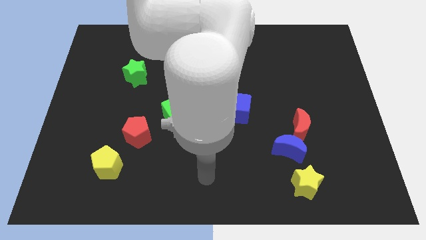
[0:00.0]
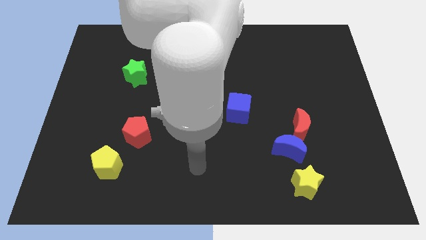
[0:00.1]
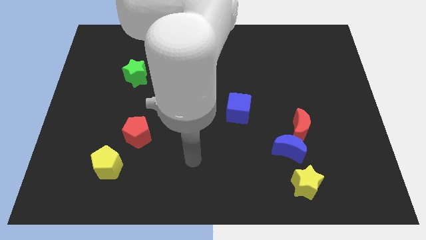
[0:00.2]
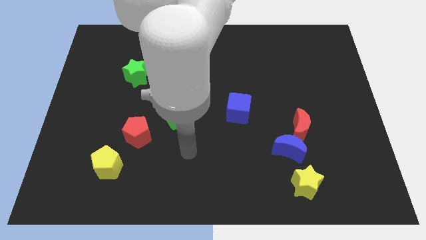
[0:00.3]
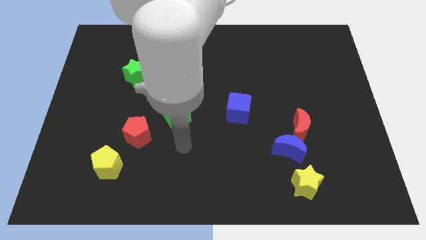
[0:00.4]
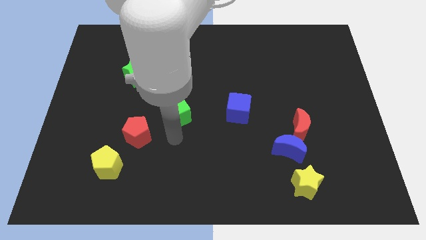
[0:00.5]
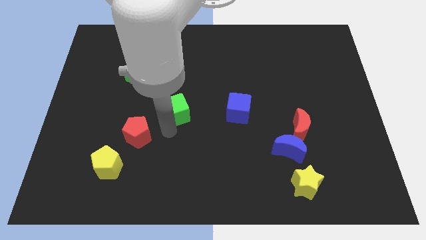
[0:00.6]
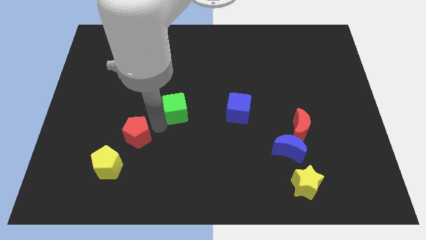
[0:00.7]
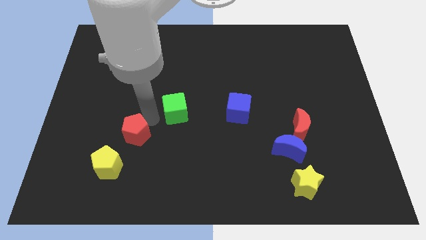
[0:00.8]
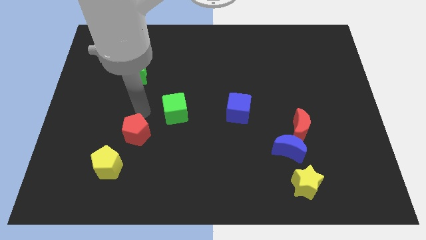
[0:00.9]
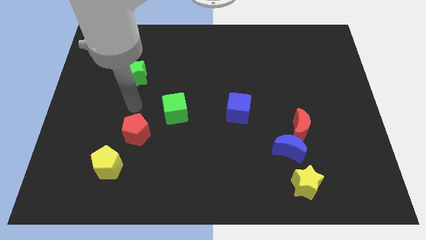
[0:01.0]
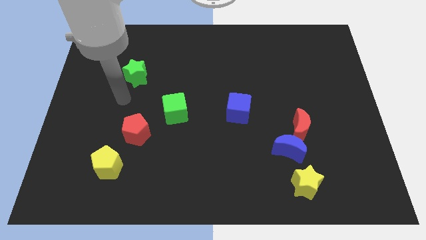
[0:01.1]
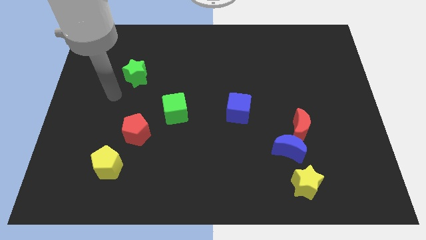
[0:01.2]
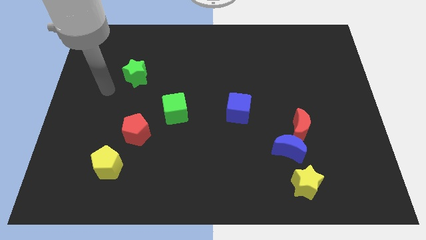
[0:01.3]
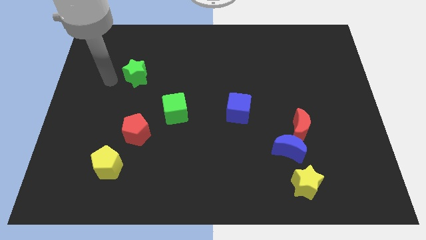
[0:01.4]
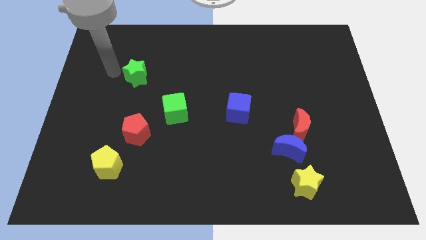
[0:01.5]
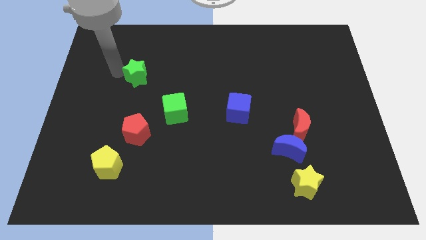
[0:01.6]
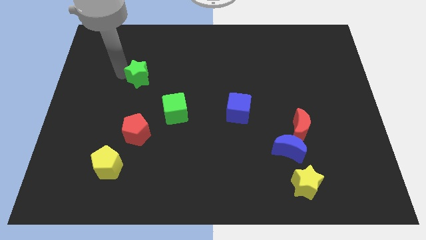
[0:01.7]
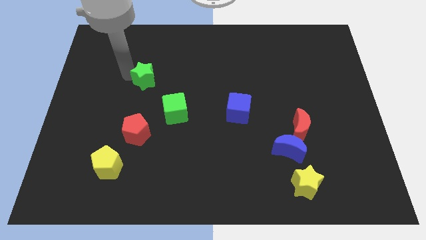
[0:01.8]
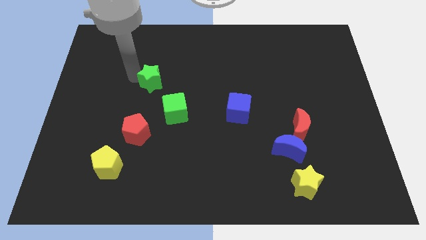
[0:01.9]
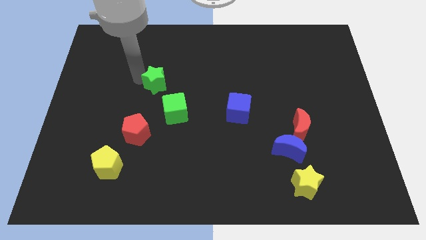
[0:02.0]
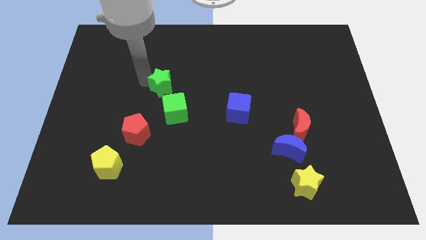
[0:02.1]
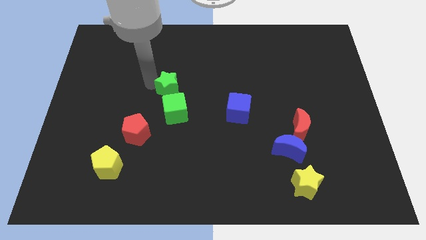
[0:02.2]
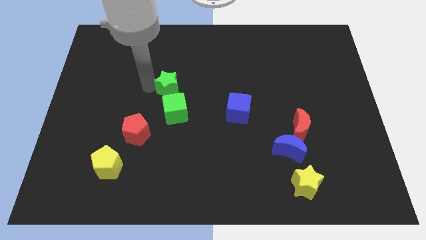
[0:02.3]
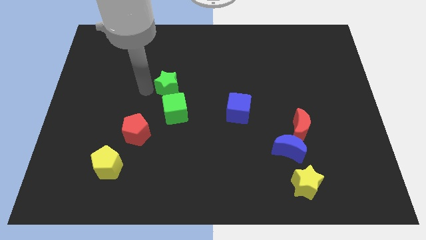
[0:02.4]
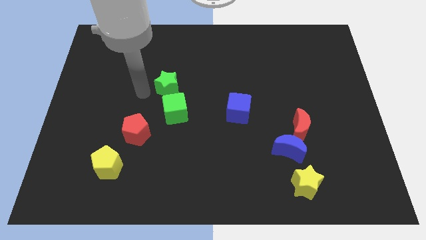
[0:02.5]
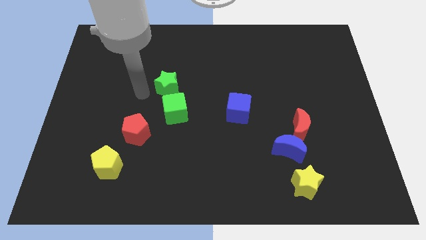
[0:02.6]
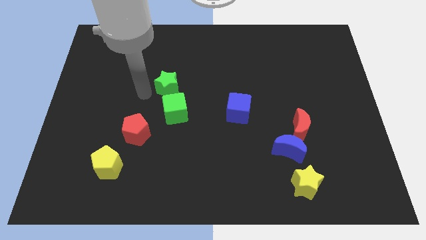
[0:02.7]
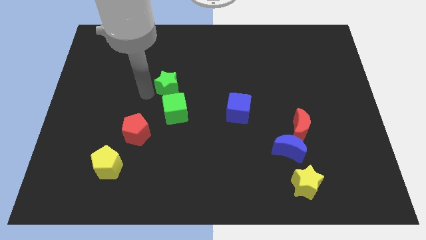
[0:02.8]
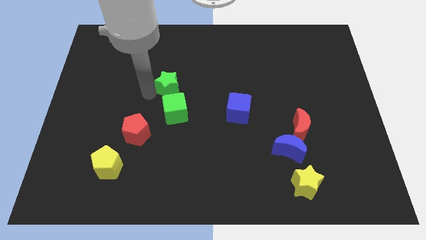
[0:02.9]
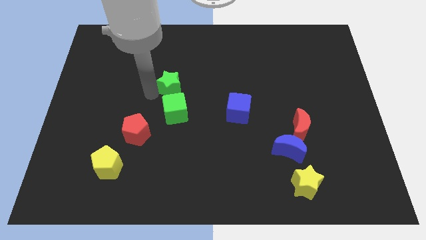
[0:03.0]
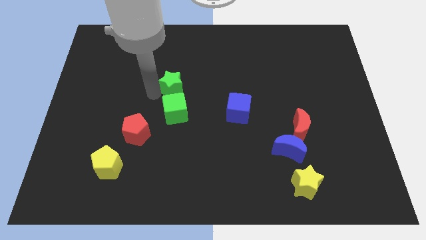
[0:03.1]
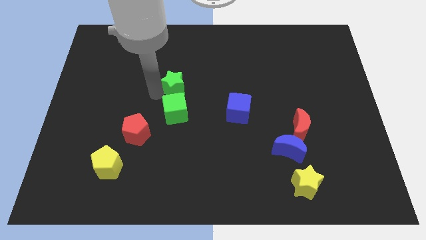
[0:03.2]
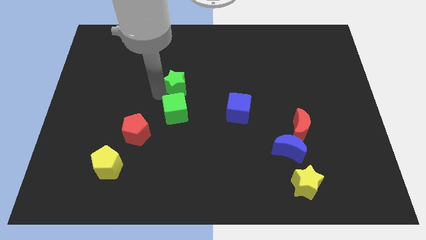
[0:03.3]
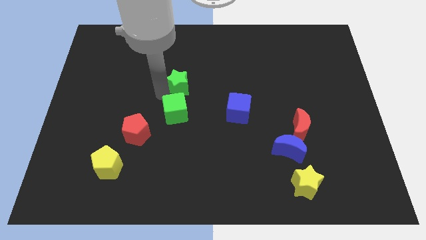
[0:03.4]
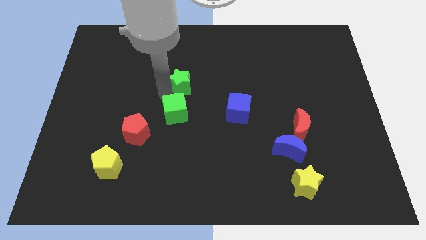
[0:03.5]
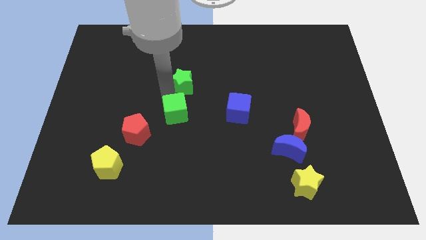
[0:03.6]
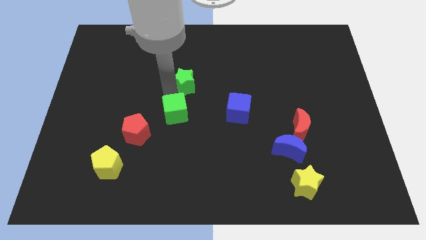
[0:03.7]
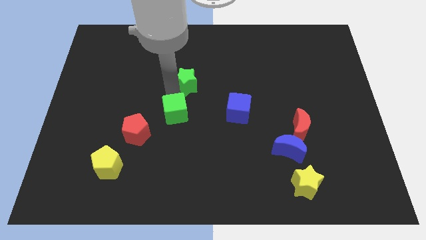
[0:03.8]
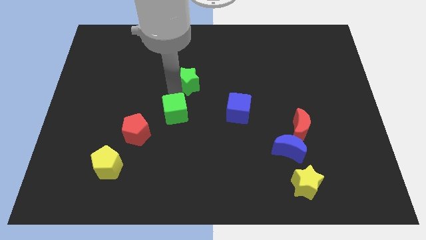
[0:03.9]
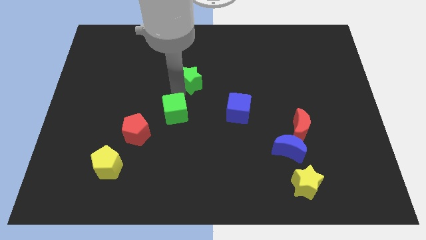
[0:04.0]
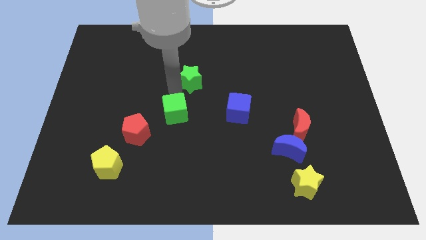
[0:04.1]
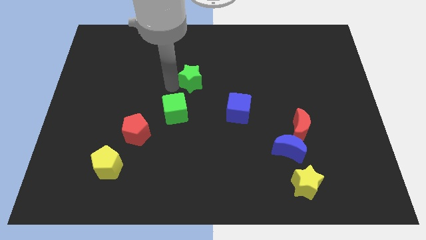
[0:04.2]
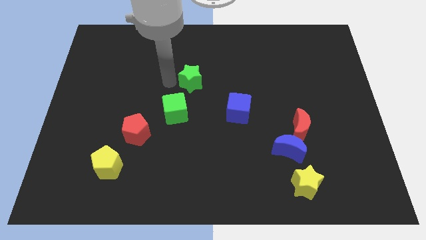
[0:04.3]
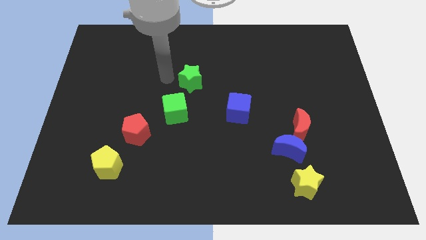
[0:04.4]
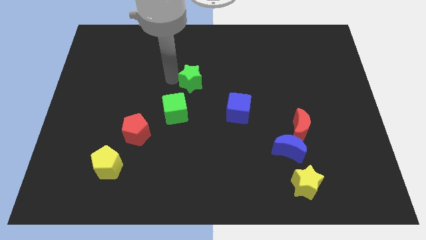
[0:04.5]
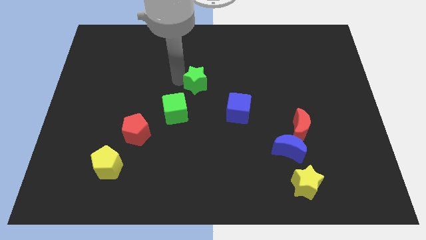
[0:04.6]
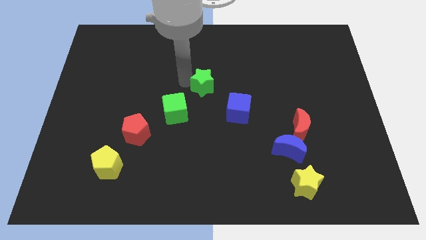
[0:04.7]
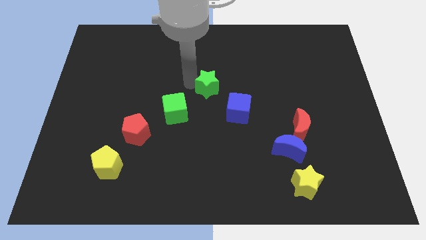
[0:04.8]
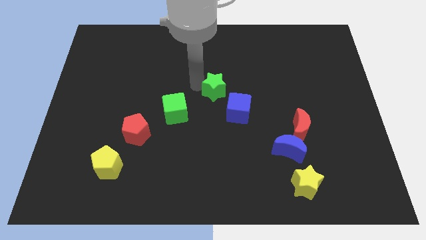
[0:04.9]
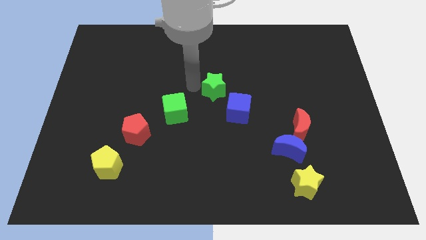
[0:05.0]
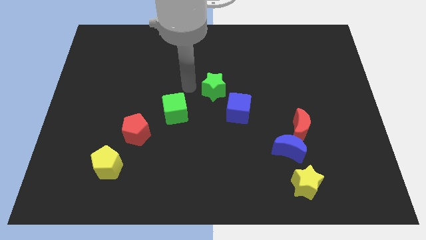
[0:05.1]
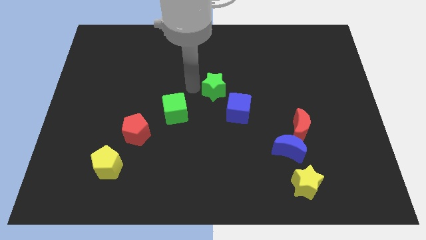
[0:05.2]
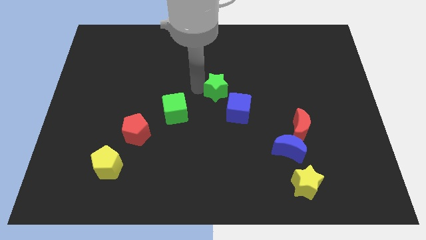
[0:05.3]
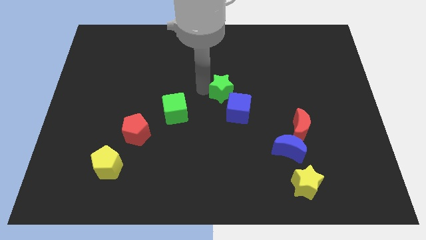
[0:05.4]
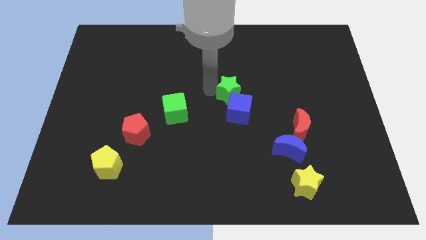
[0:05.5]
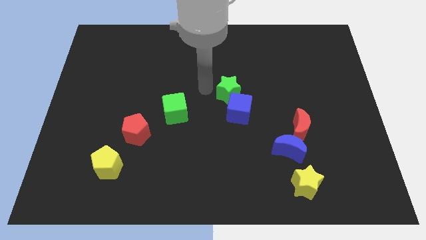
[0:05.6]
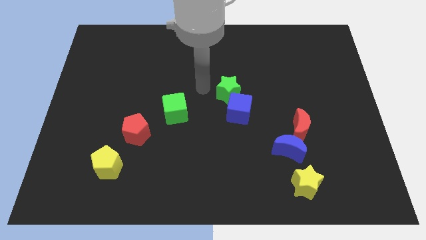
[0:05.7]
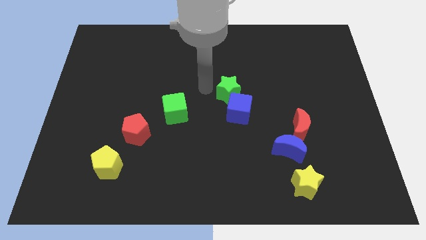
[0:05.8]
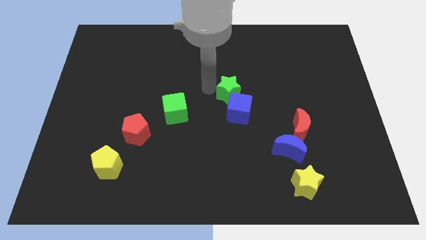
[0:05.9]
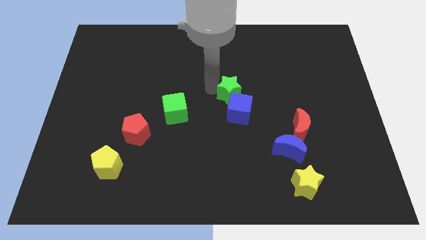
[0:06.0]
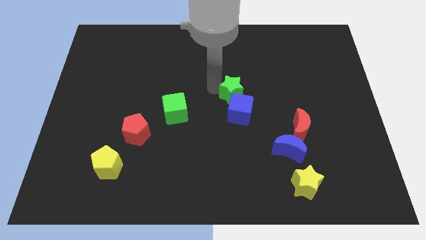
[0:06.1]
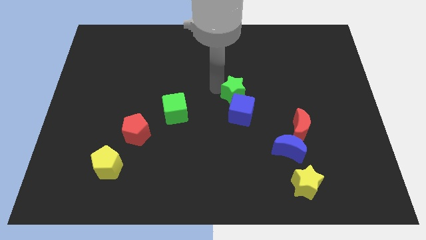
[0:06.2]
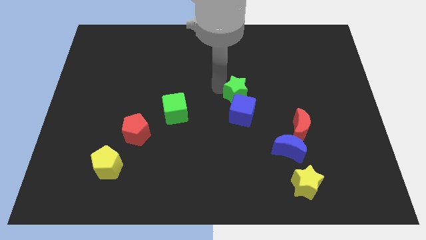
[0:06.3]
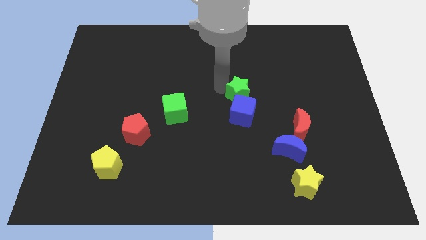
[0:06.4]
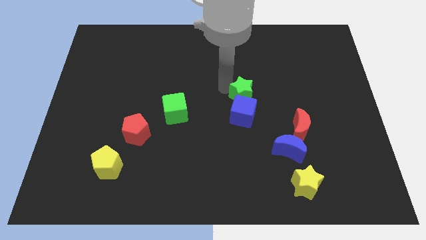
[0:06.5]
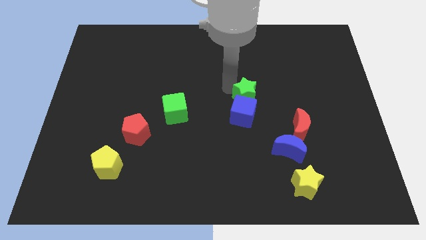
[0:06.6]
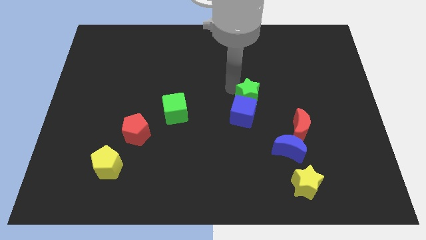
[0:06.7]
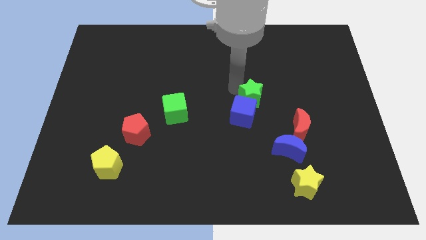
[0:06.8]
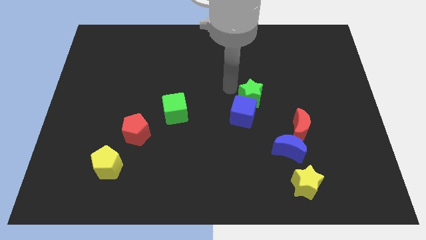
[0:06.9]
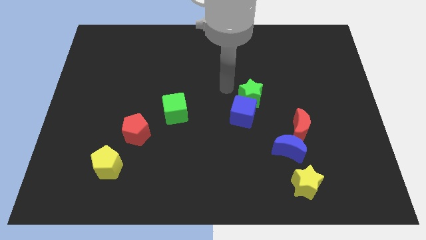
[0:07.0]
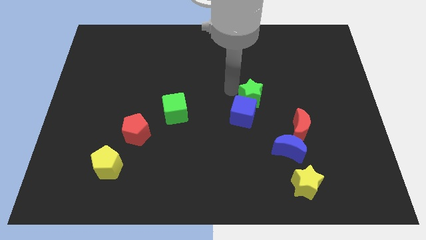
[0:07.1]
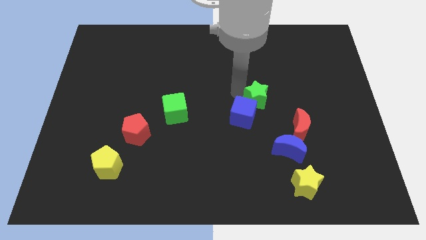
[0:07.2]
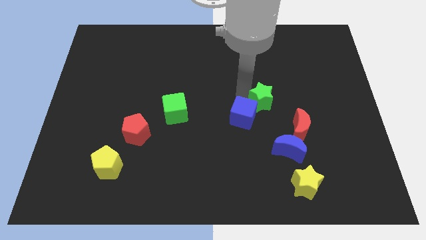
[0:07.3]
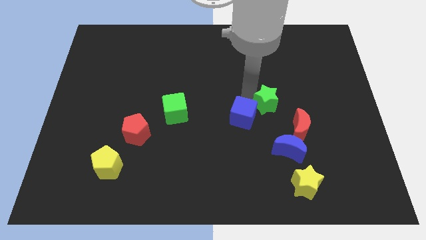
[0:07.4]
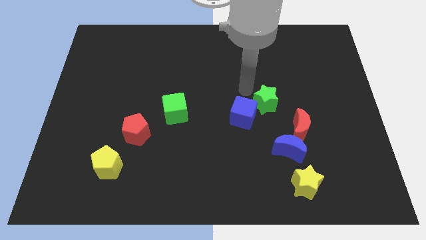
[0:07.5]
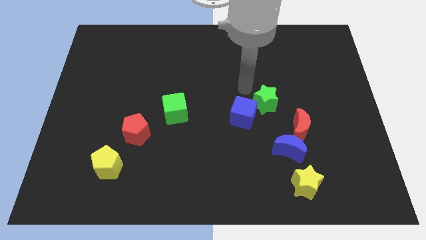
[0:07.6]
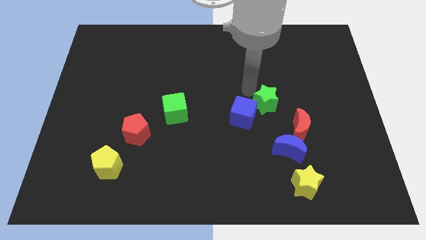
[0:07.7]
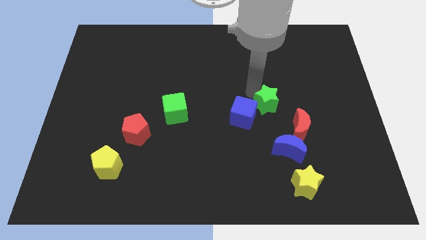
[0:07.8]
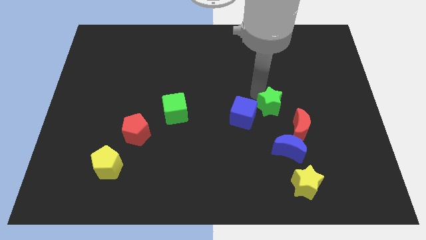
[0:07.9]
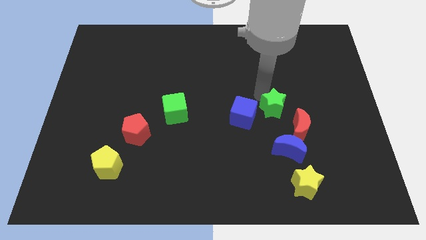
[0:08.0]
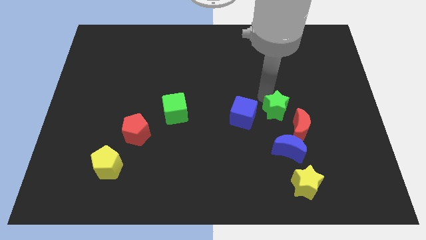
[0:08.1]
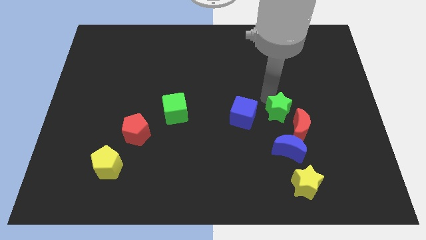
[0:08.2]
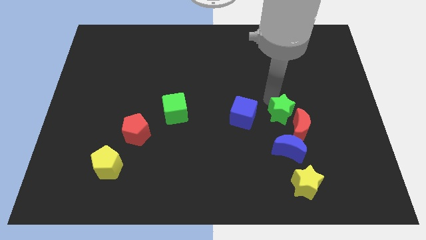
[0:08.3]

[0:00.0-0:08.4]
put the green star next to the red moon
